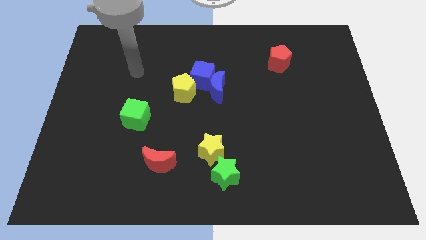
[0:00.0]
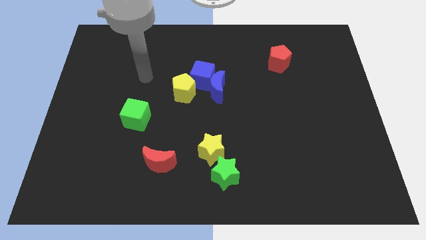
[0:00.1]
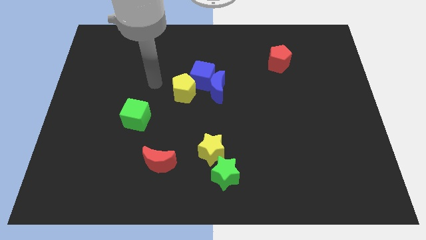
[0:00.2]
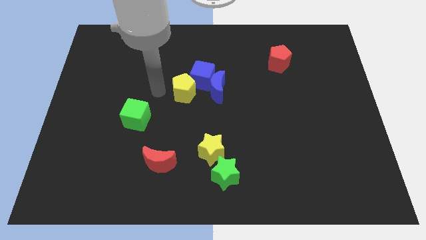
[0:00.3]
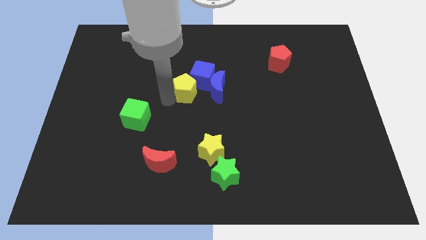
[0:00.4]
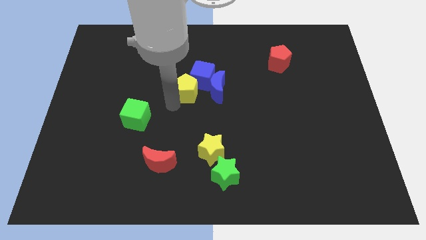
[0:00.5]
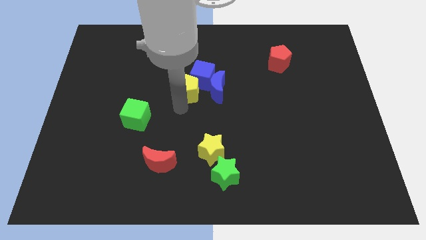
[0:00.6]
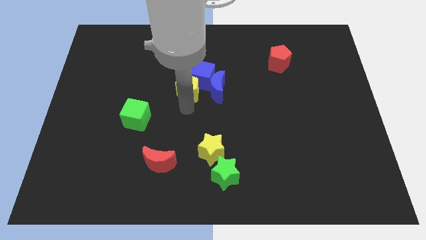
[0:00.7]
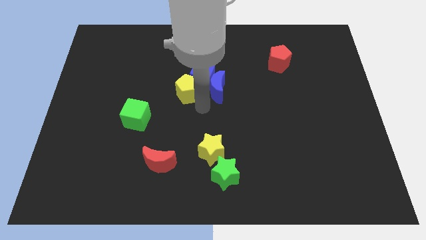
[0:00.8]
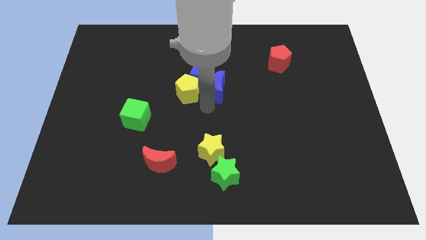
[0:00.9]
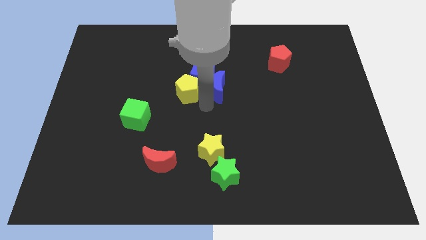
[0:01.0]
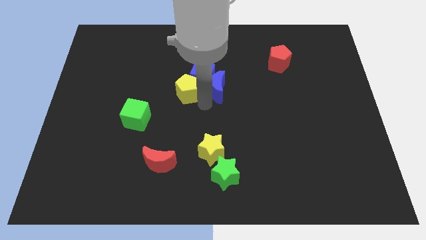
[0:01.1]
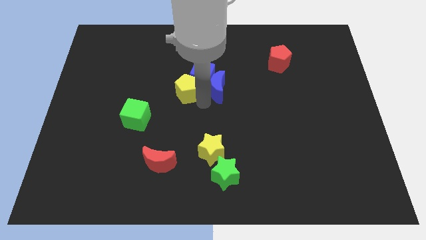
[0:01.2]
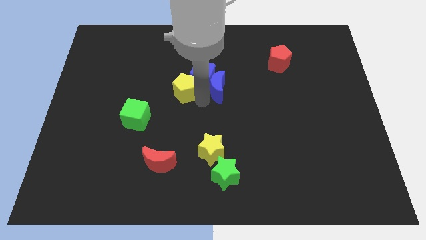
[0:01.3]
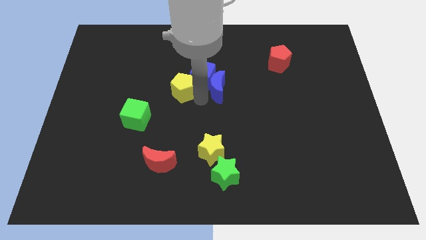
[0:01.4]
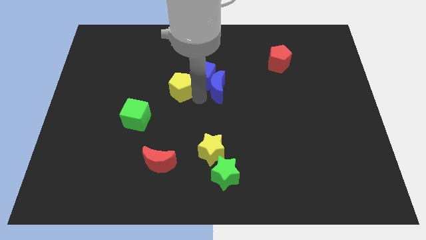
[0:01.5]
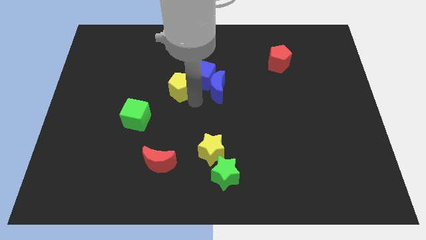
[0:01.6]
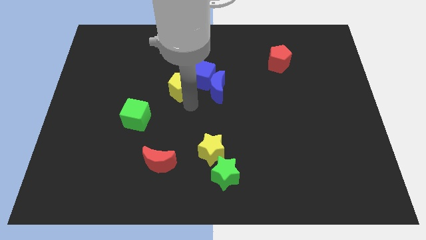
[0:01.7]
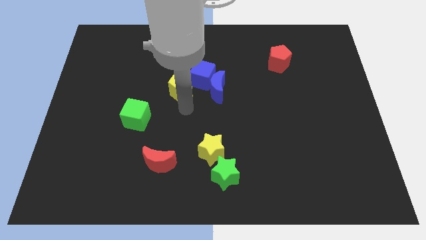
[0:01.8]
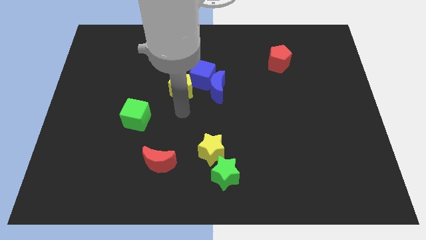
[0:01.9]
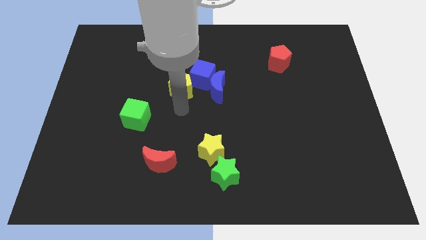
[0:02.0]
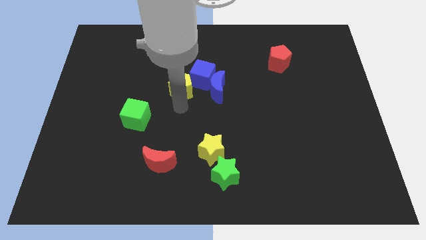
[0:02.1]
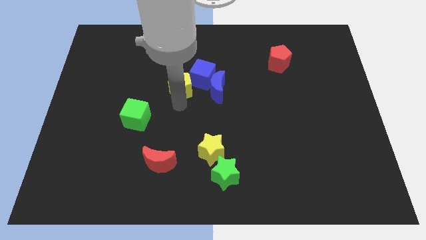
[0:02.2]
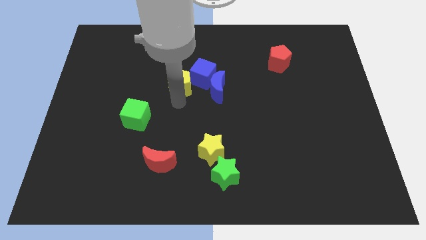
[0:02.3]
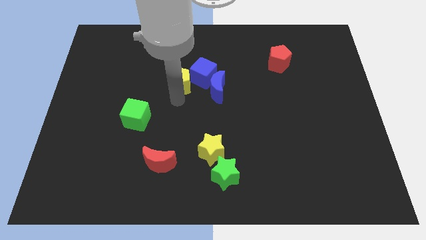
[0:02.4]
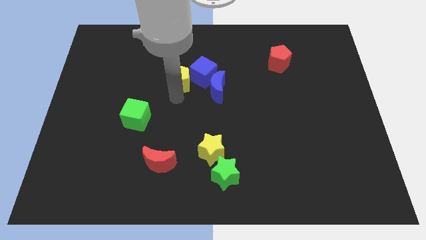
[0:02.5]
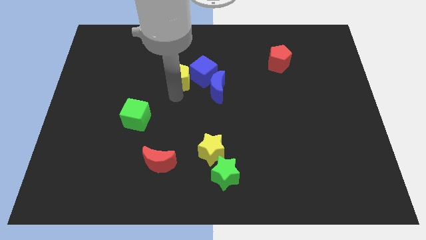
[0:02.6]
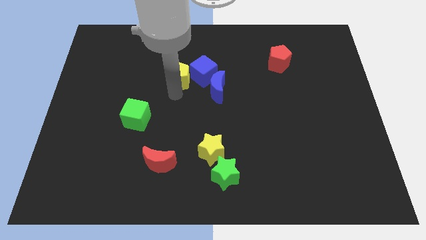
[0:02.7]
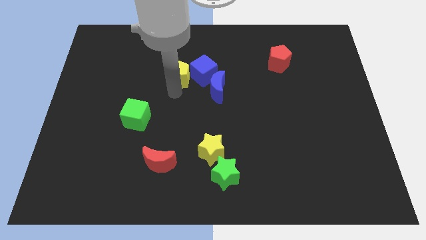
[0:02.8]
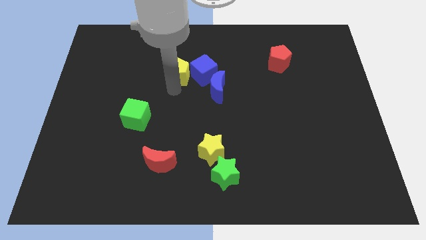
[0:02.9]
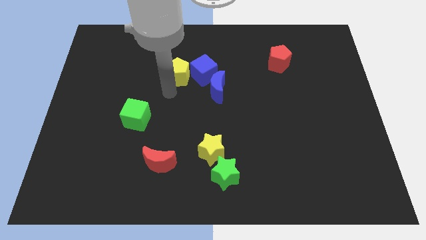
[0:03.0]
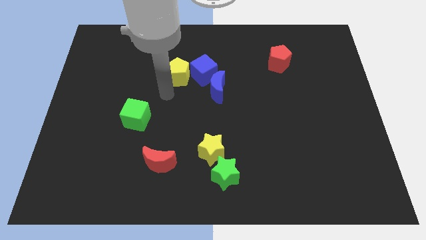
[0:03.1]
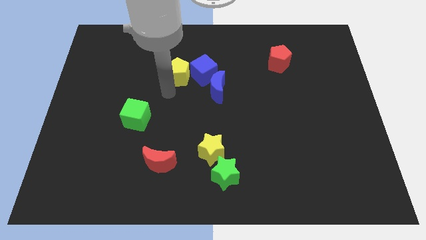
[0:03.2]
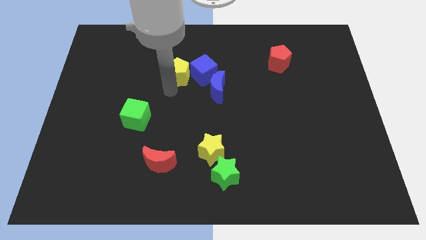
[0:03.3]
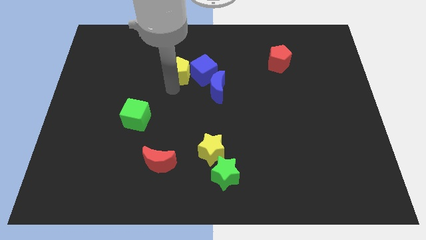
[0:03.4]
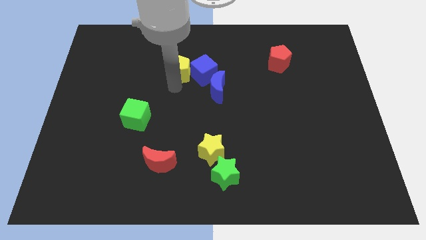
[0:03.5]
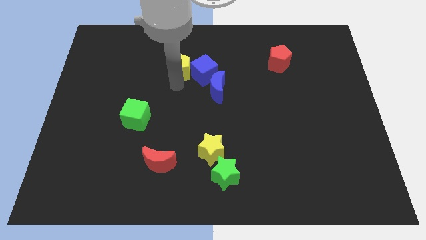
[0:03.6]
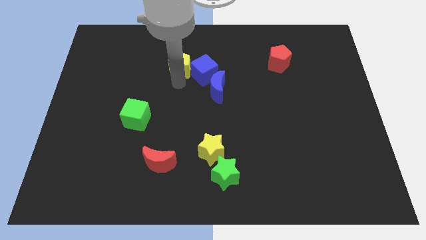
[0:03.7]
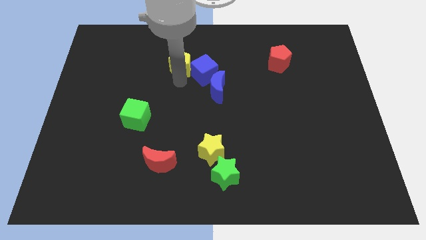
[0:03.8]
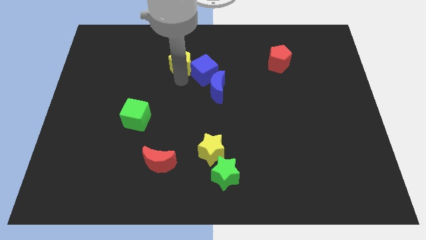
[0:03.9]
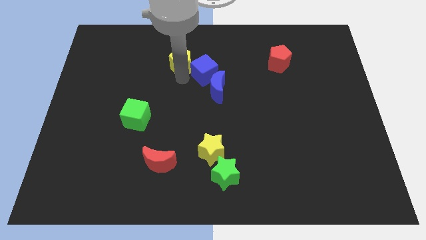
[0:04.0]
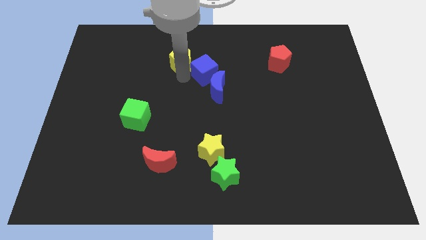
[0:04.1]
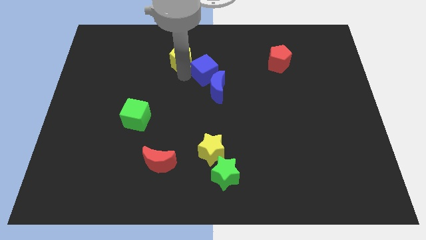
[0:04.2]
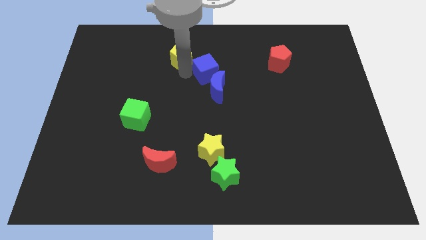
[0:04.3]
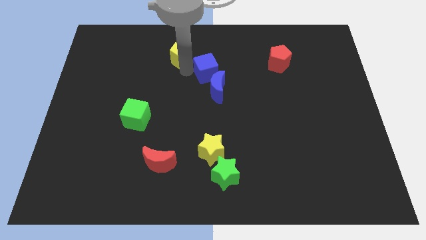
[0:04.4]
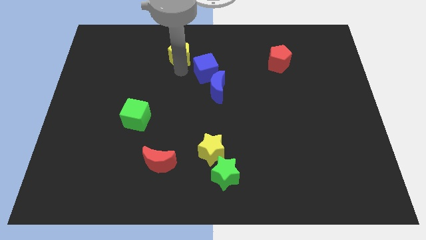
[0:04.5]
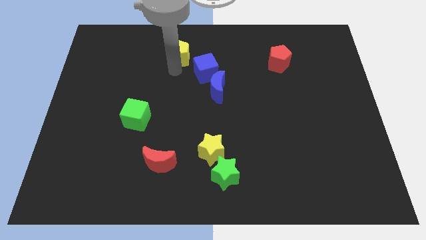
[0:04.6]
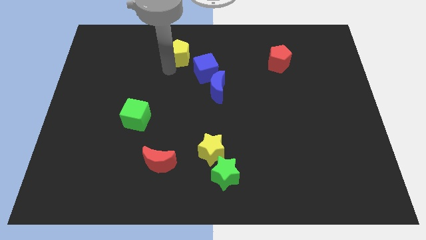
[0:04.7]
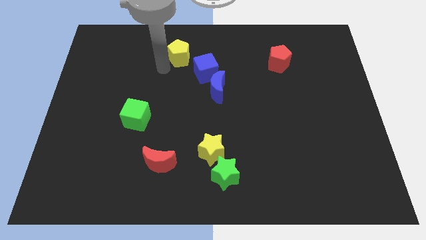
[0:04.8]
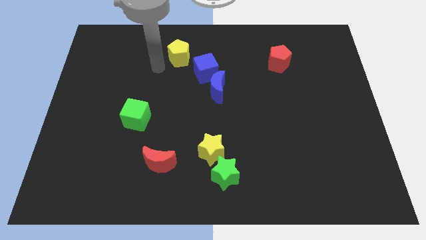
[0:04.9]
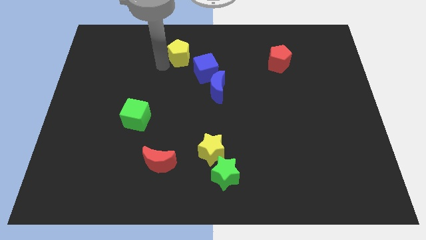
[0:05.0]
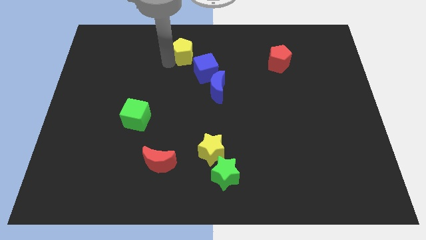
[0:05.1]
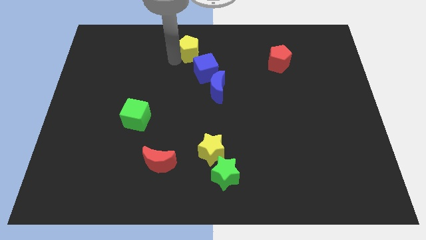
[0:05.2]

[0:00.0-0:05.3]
slide the yellow pentagon to the top side

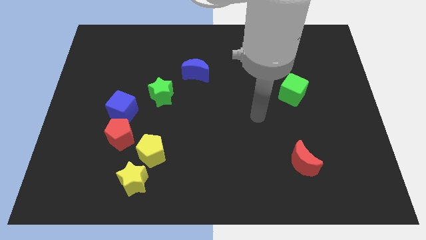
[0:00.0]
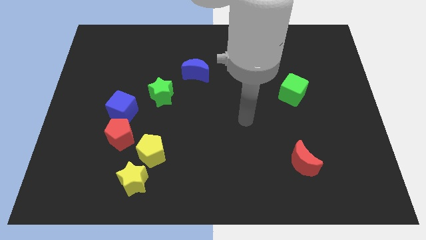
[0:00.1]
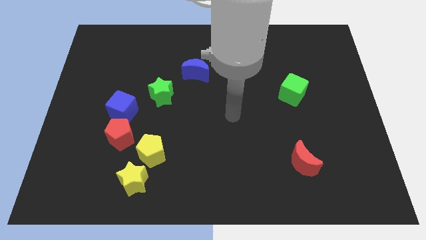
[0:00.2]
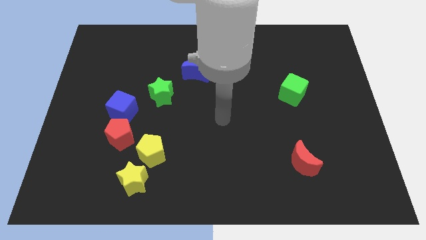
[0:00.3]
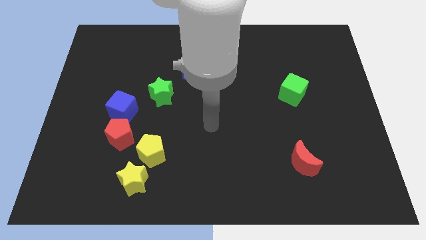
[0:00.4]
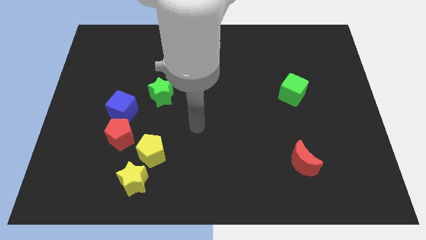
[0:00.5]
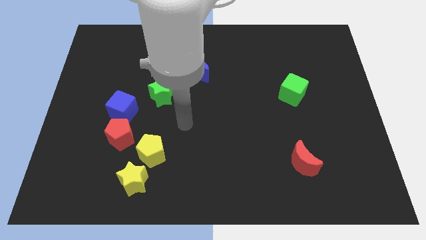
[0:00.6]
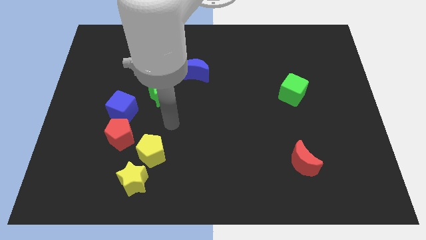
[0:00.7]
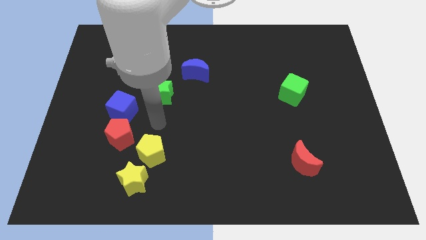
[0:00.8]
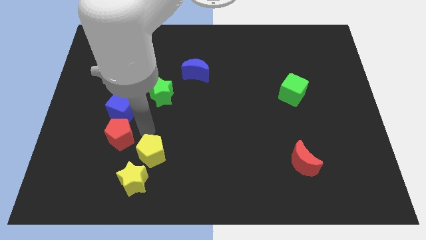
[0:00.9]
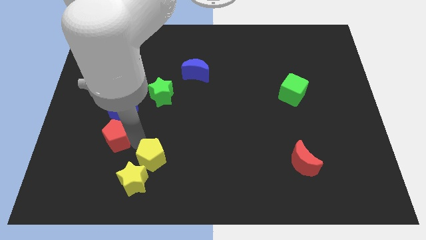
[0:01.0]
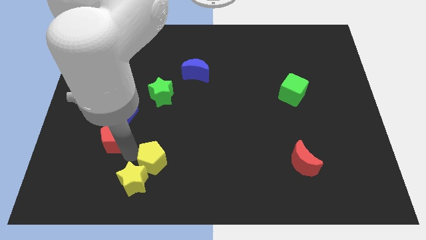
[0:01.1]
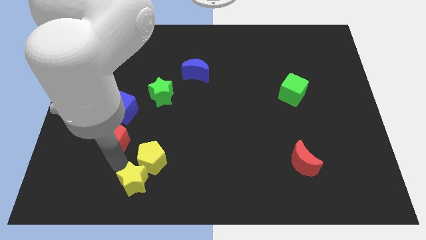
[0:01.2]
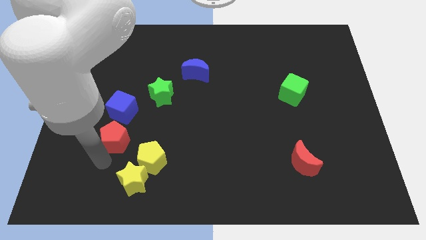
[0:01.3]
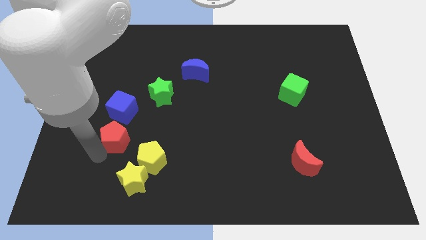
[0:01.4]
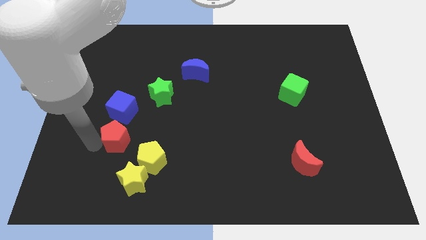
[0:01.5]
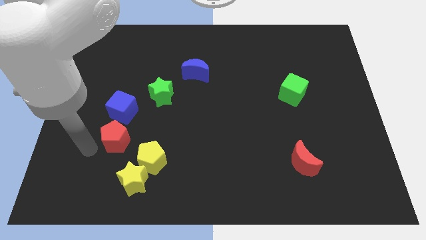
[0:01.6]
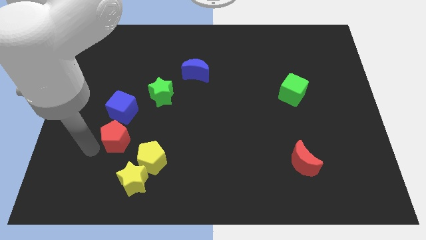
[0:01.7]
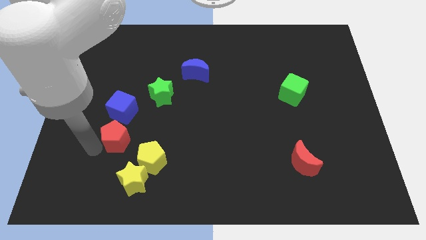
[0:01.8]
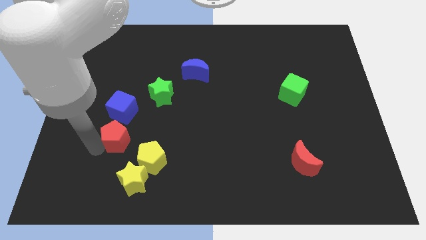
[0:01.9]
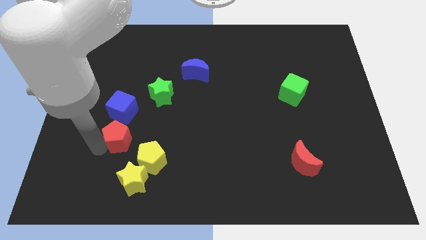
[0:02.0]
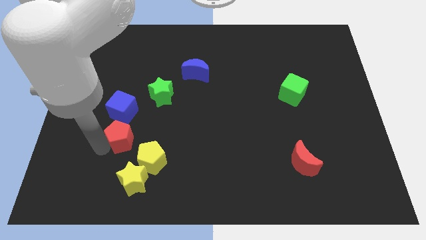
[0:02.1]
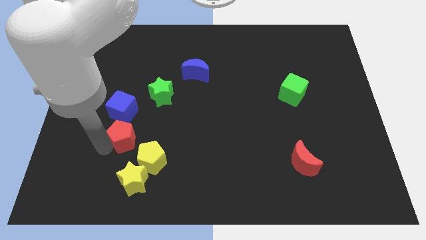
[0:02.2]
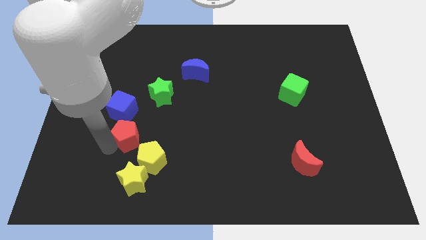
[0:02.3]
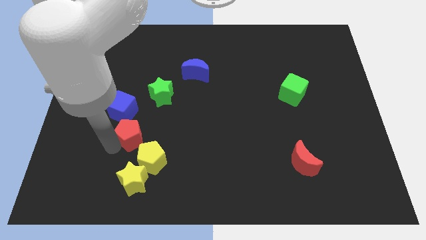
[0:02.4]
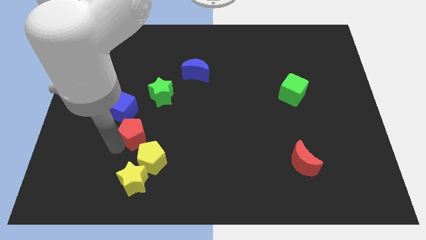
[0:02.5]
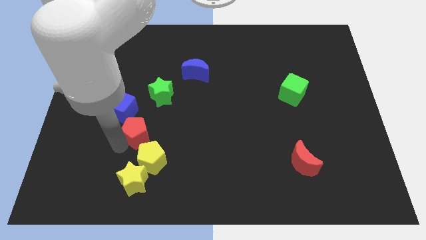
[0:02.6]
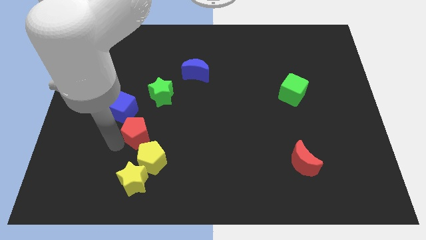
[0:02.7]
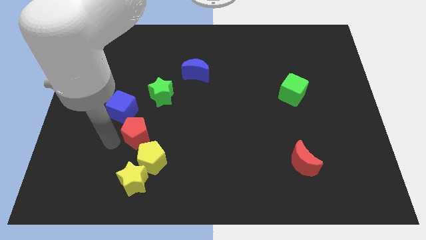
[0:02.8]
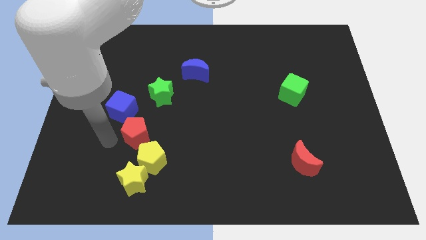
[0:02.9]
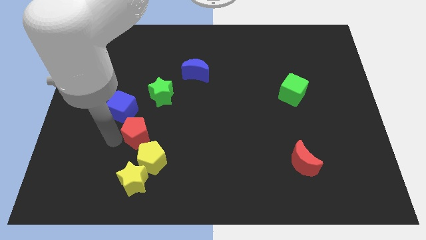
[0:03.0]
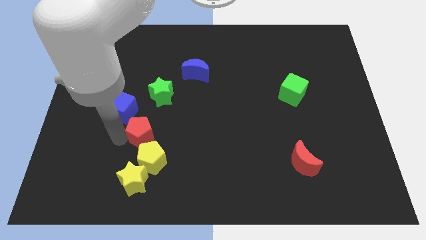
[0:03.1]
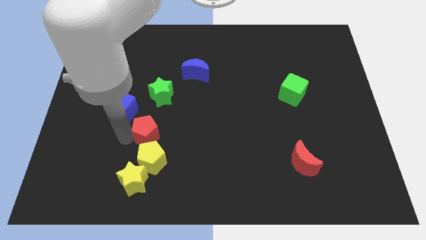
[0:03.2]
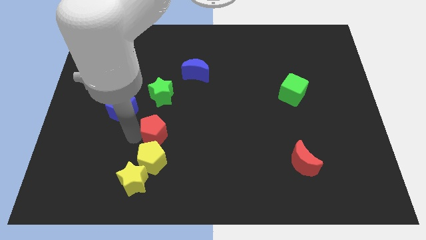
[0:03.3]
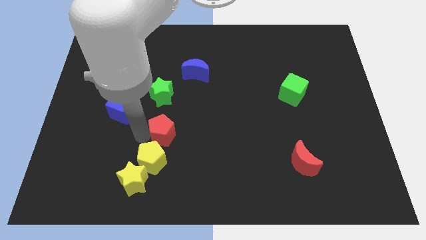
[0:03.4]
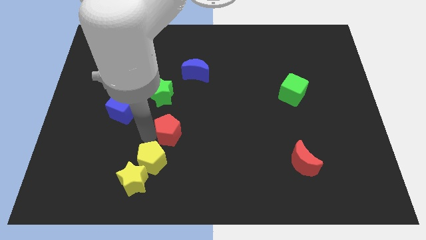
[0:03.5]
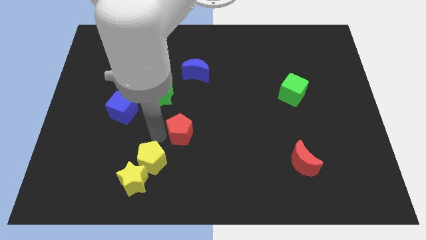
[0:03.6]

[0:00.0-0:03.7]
move the red pentagon to the middle of the board
